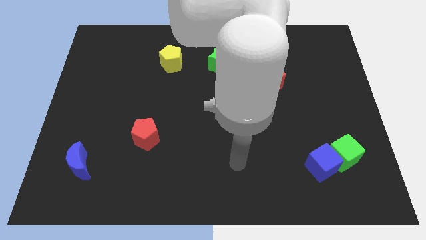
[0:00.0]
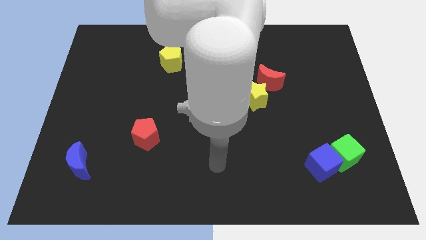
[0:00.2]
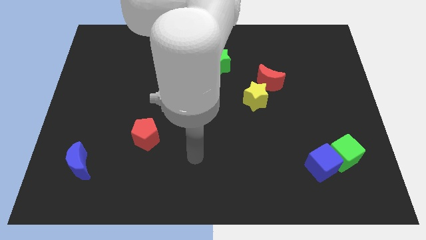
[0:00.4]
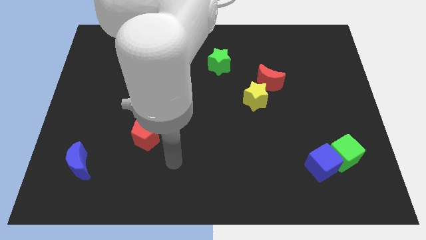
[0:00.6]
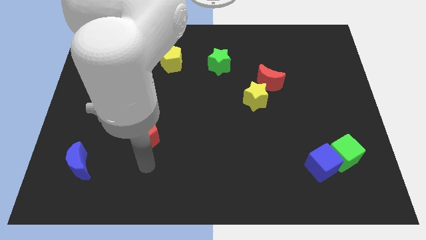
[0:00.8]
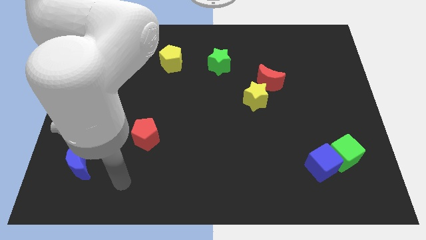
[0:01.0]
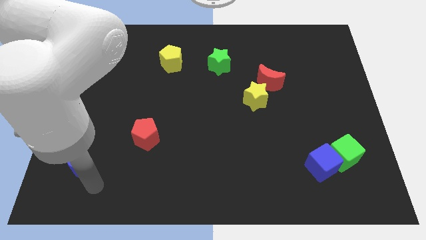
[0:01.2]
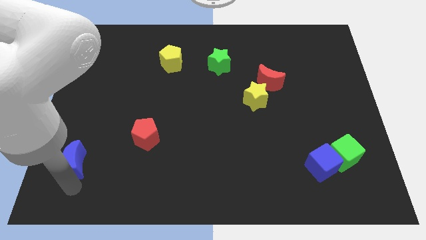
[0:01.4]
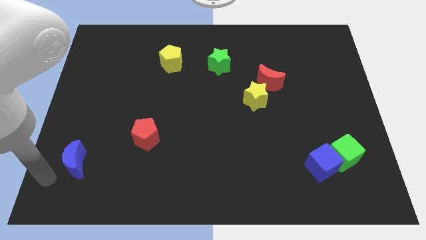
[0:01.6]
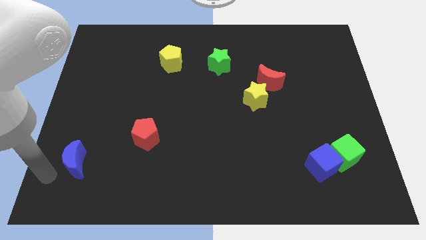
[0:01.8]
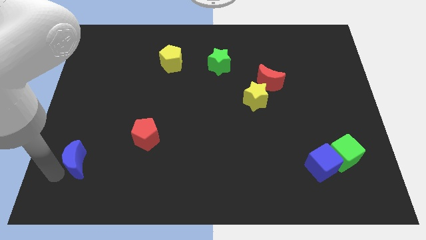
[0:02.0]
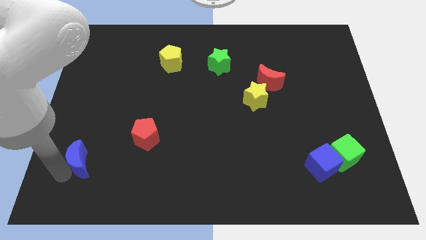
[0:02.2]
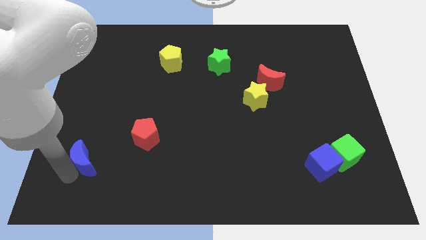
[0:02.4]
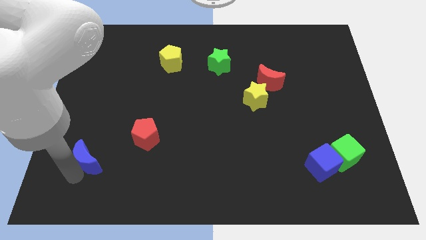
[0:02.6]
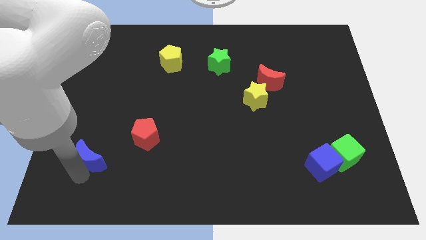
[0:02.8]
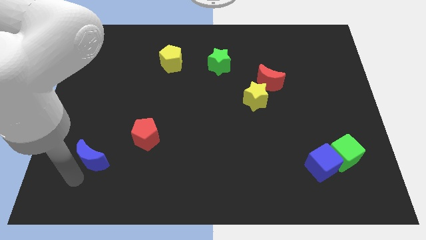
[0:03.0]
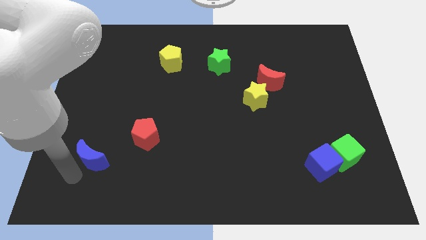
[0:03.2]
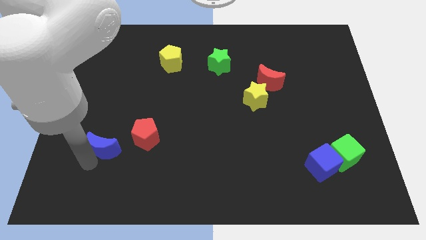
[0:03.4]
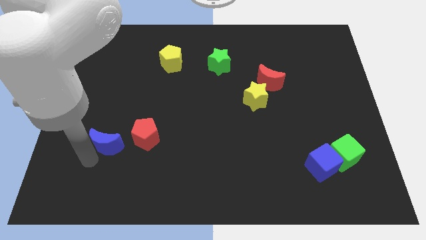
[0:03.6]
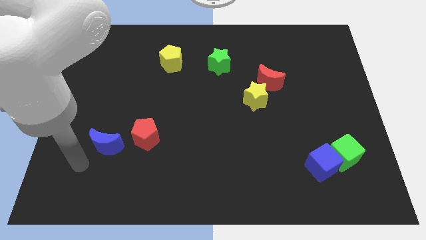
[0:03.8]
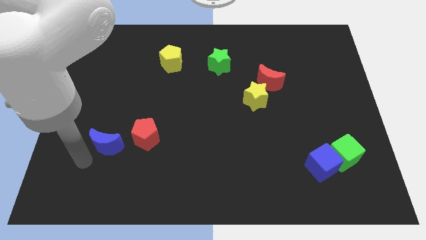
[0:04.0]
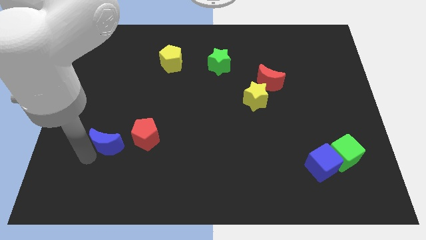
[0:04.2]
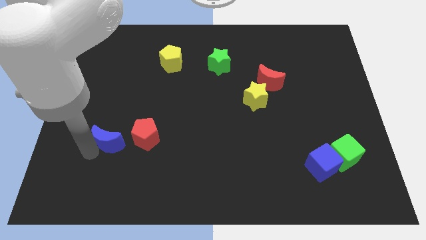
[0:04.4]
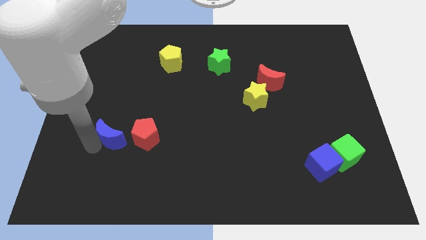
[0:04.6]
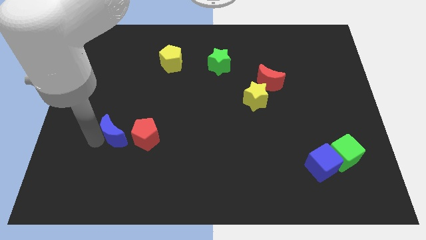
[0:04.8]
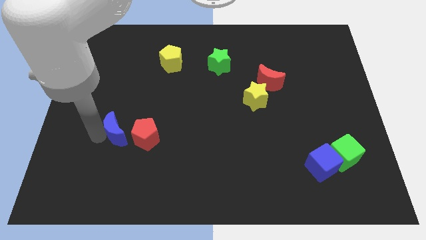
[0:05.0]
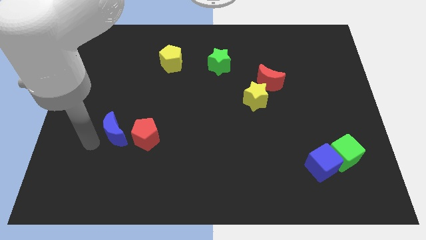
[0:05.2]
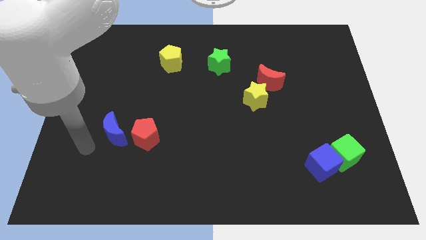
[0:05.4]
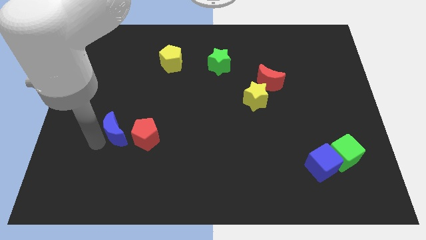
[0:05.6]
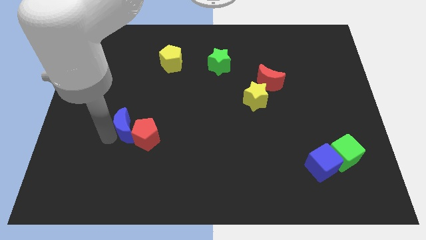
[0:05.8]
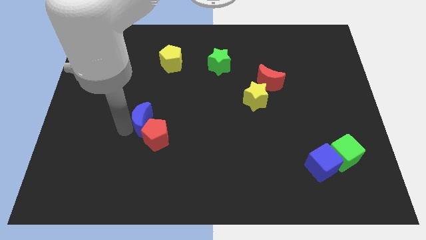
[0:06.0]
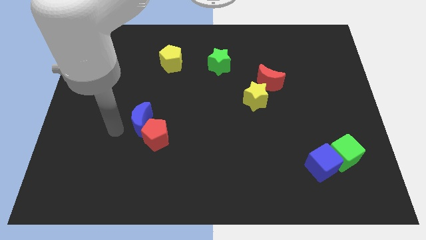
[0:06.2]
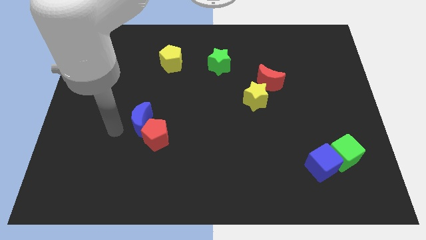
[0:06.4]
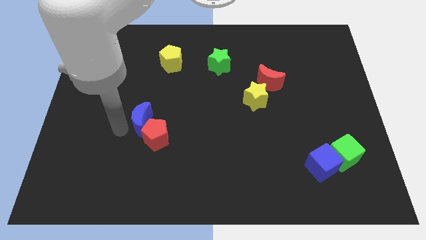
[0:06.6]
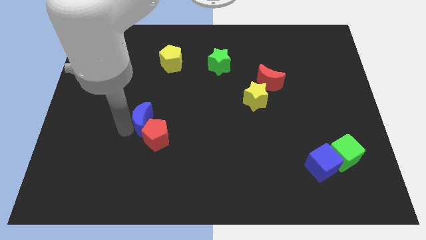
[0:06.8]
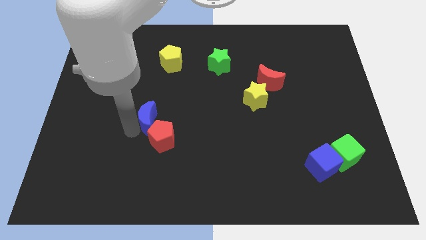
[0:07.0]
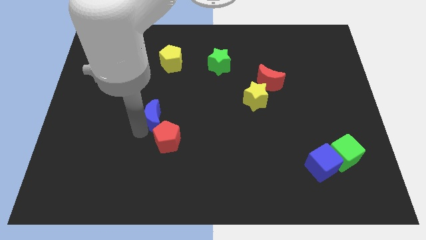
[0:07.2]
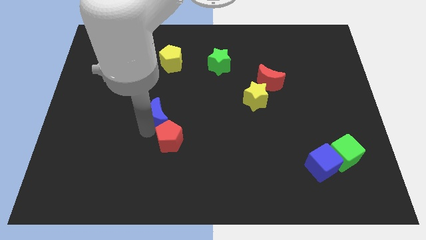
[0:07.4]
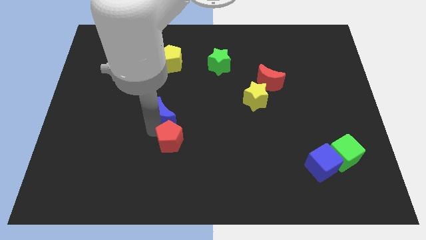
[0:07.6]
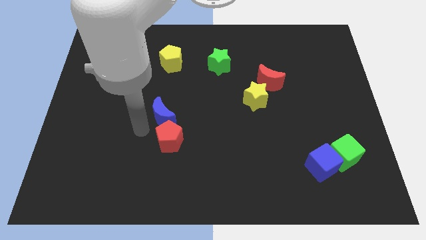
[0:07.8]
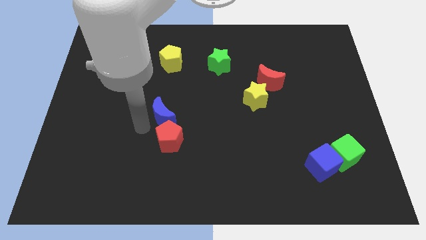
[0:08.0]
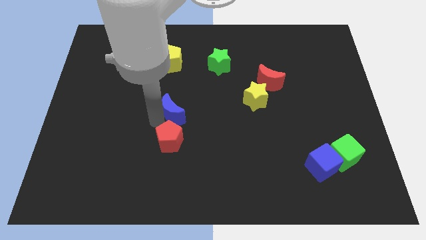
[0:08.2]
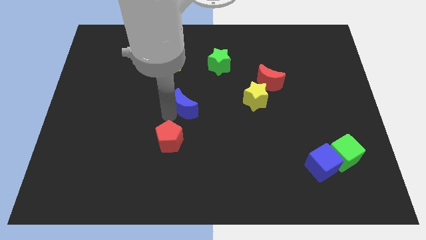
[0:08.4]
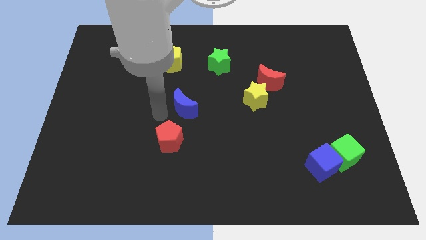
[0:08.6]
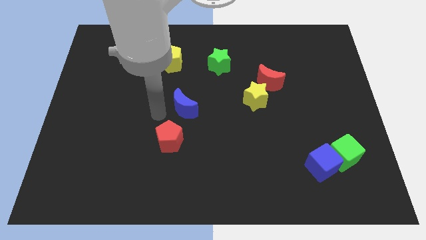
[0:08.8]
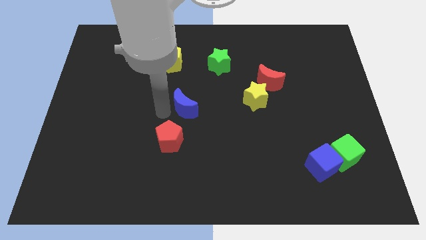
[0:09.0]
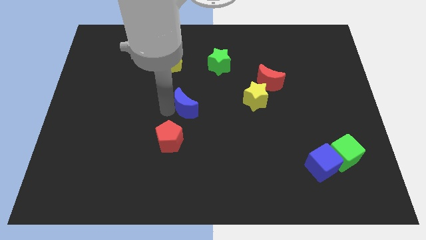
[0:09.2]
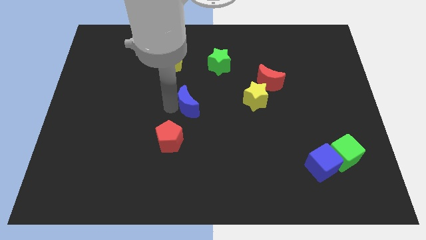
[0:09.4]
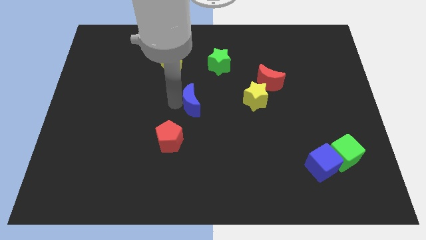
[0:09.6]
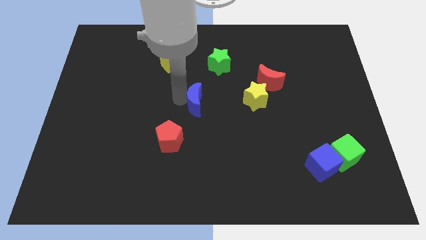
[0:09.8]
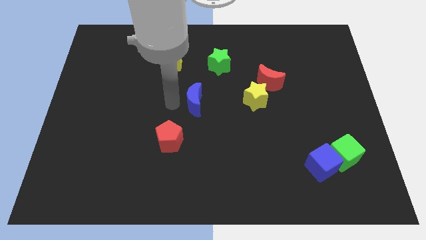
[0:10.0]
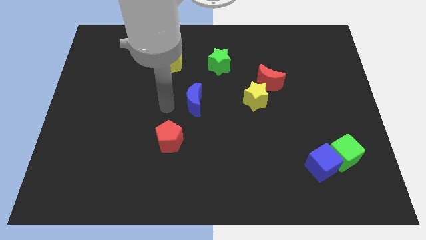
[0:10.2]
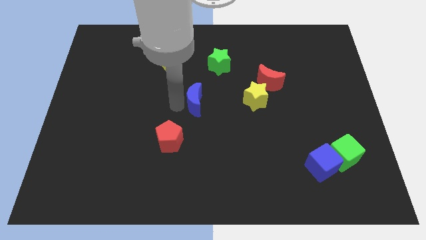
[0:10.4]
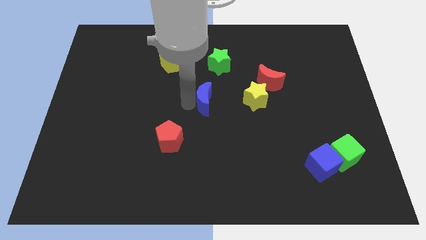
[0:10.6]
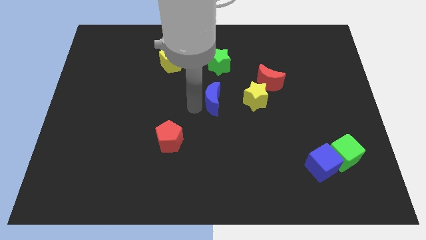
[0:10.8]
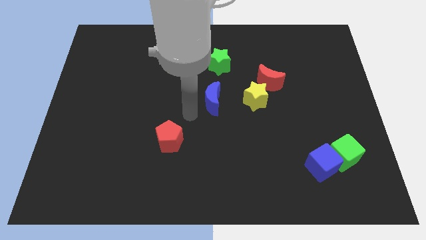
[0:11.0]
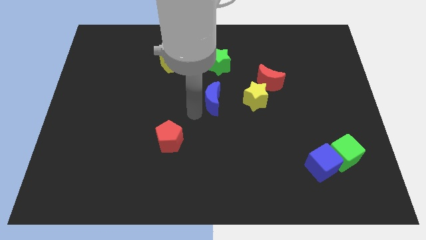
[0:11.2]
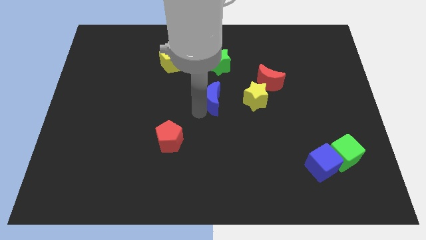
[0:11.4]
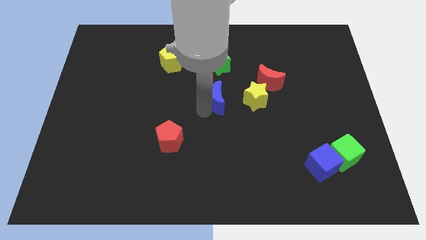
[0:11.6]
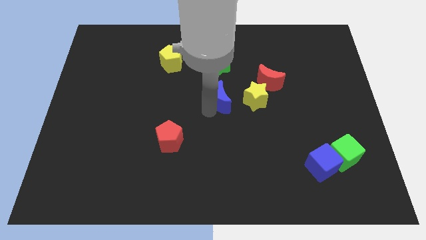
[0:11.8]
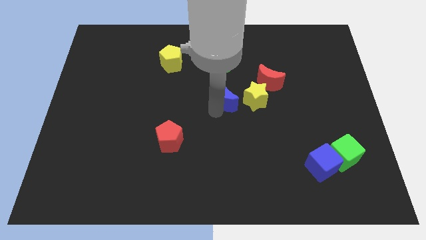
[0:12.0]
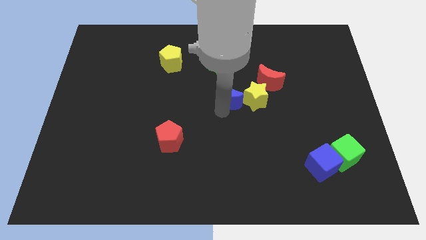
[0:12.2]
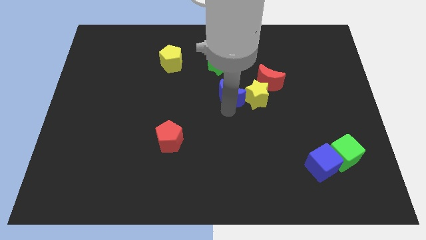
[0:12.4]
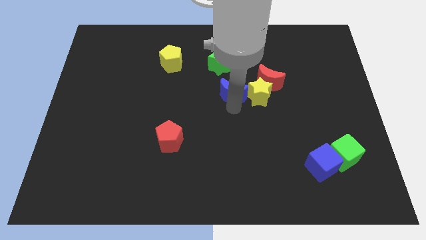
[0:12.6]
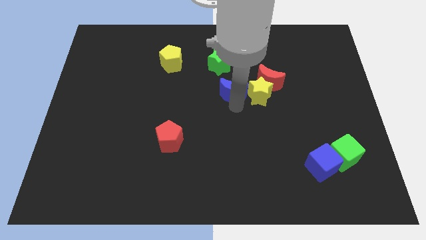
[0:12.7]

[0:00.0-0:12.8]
put the blue moon to the bottom right of the green star

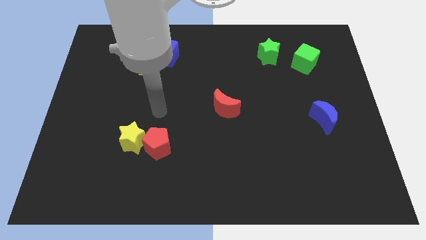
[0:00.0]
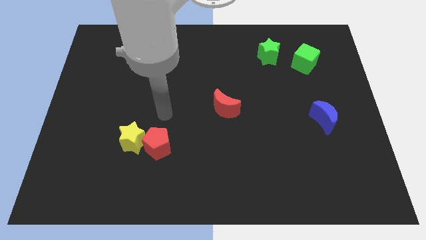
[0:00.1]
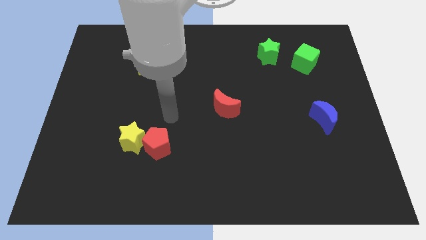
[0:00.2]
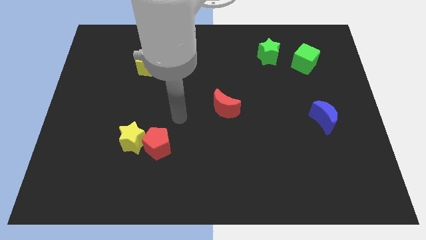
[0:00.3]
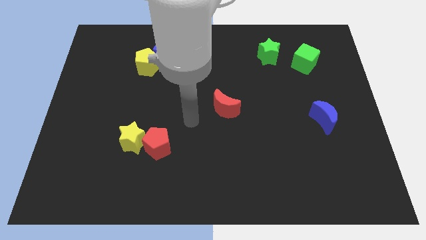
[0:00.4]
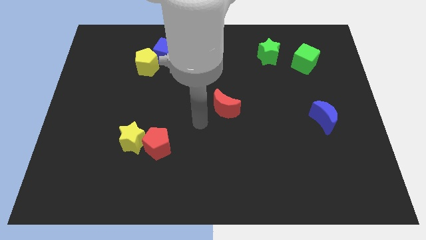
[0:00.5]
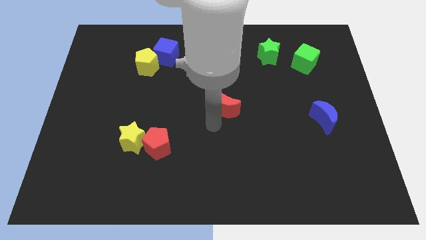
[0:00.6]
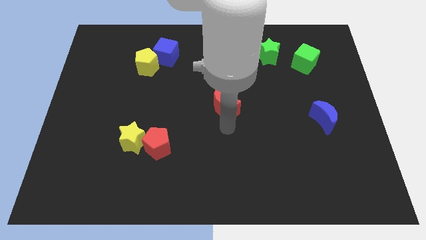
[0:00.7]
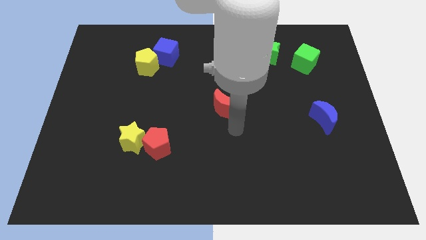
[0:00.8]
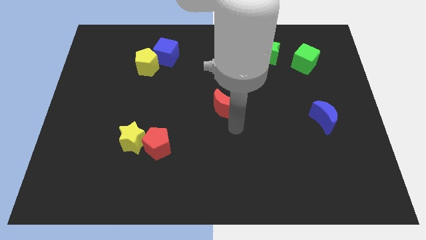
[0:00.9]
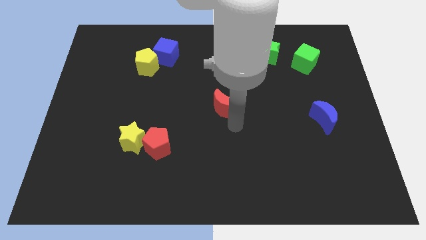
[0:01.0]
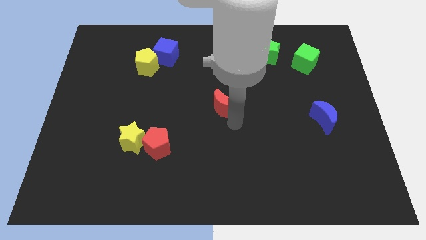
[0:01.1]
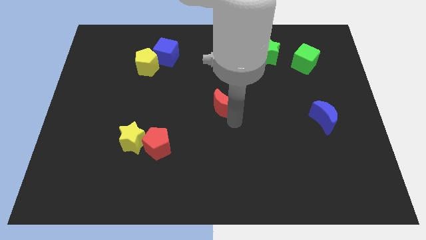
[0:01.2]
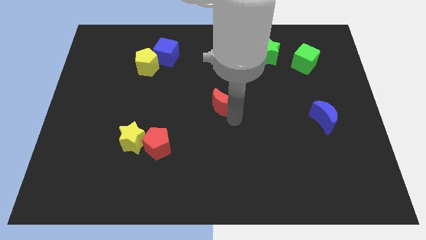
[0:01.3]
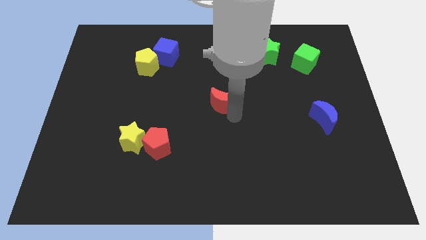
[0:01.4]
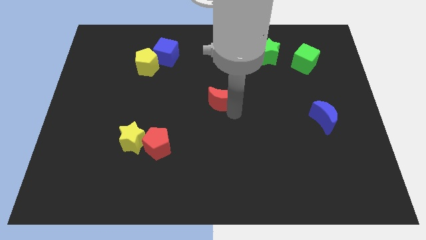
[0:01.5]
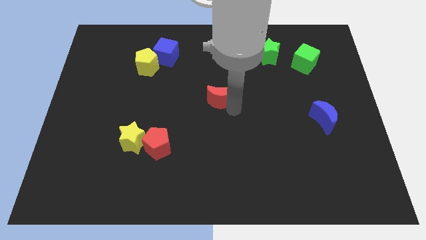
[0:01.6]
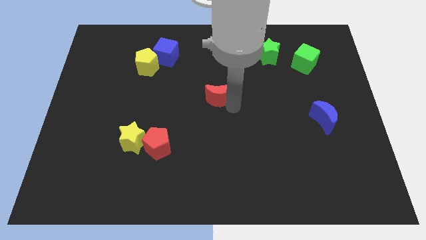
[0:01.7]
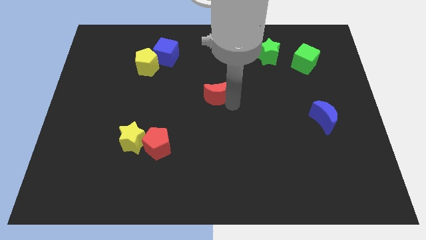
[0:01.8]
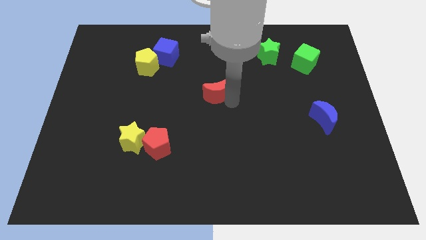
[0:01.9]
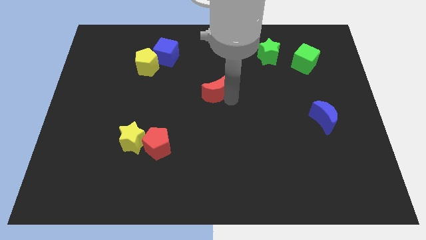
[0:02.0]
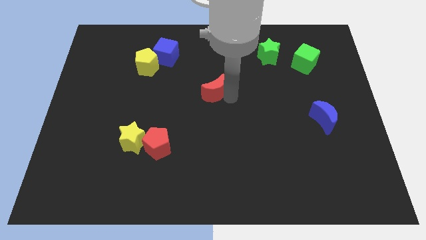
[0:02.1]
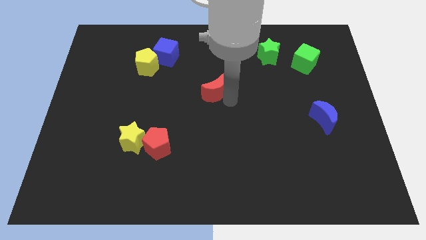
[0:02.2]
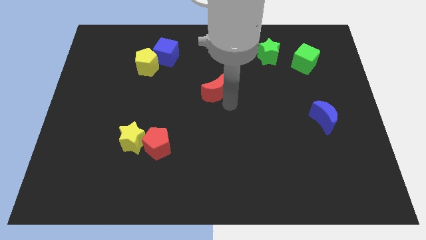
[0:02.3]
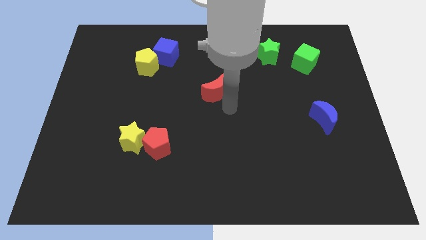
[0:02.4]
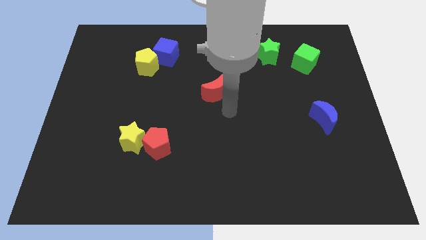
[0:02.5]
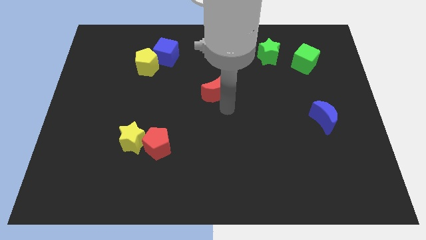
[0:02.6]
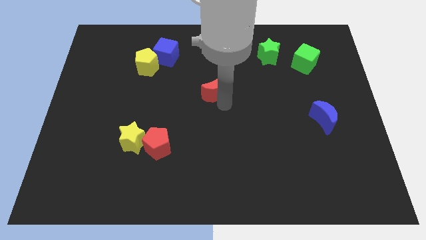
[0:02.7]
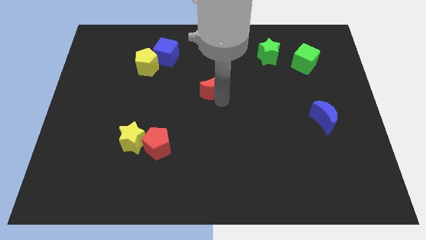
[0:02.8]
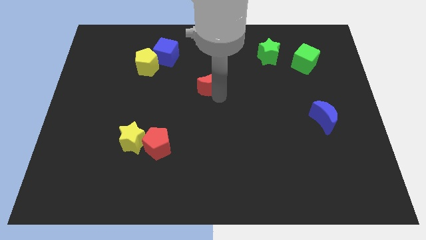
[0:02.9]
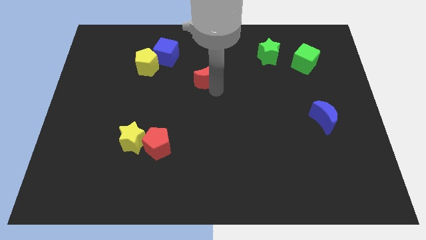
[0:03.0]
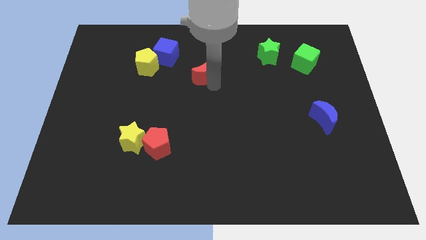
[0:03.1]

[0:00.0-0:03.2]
move the red moon just right of the yellow pentagon
